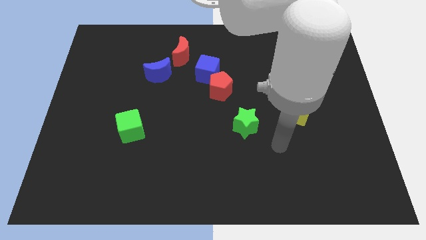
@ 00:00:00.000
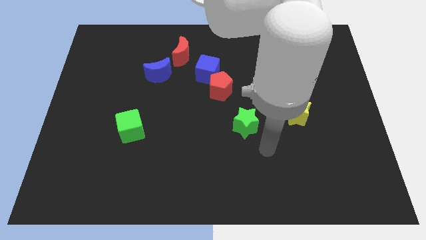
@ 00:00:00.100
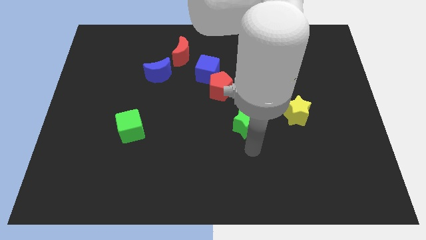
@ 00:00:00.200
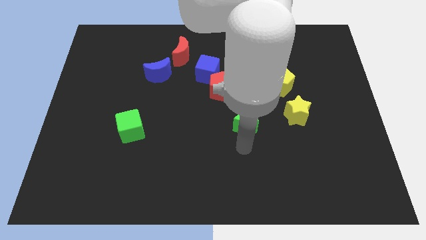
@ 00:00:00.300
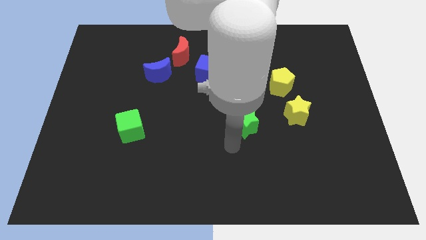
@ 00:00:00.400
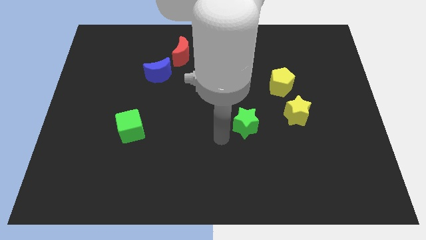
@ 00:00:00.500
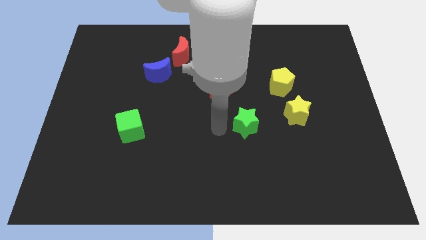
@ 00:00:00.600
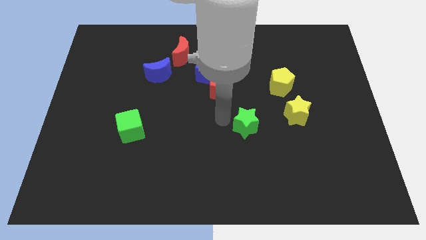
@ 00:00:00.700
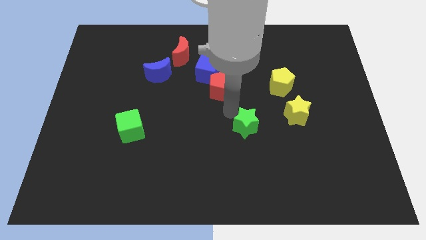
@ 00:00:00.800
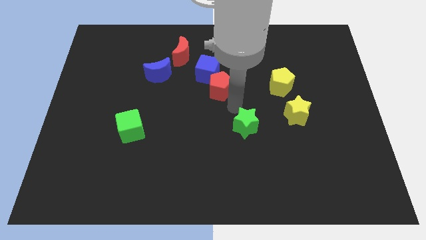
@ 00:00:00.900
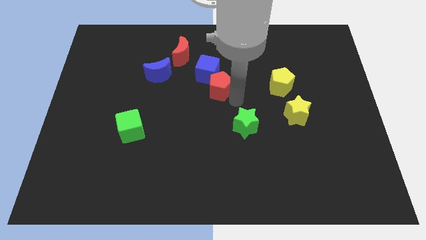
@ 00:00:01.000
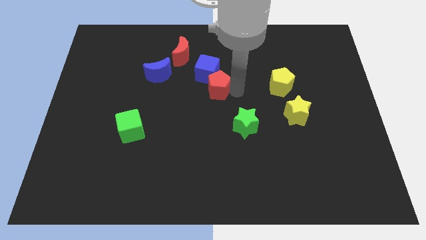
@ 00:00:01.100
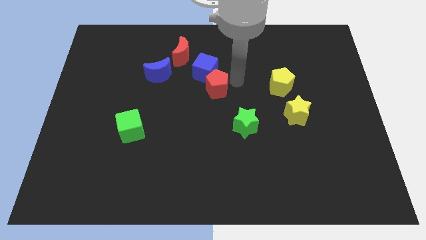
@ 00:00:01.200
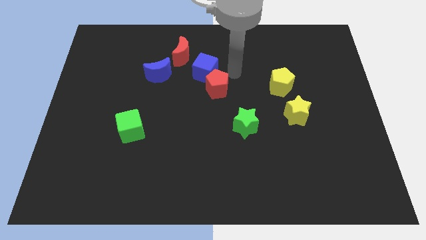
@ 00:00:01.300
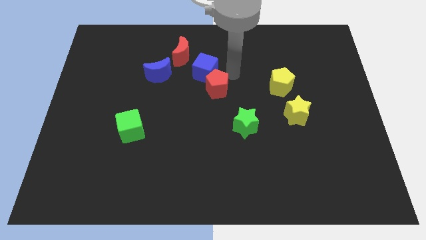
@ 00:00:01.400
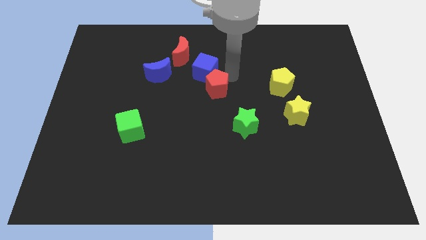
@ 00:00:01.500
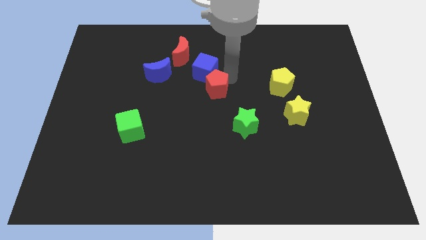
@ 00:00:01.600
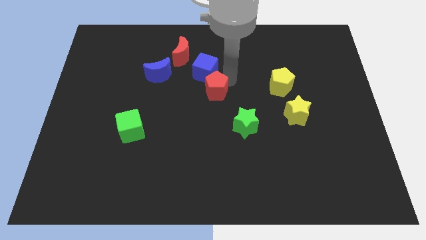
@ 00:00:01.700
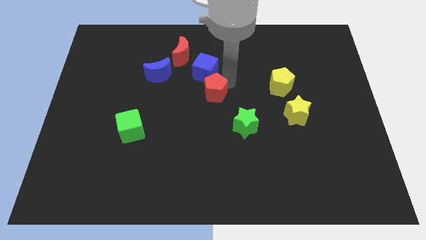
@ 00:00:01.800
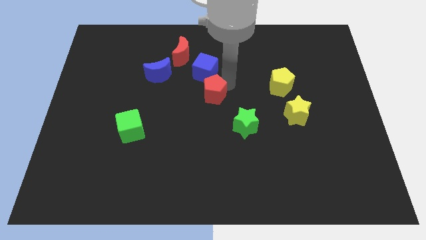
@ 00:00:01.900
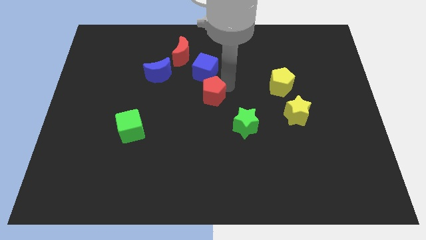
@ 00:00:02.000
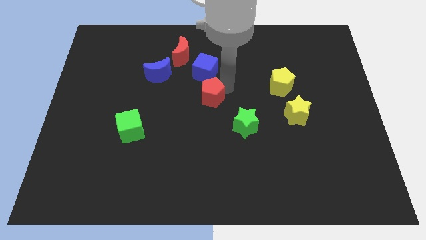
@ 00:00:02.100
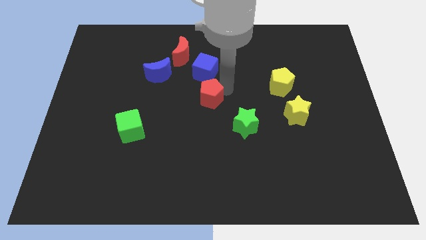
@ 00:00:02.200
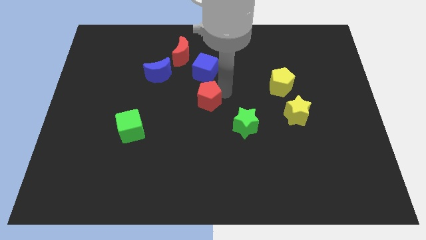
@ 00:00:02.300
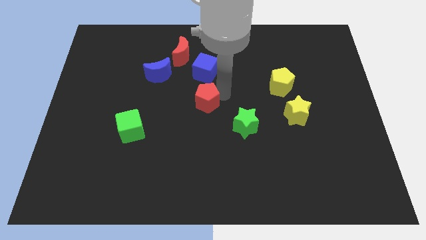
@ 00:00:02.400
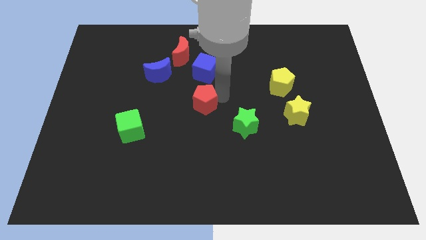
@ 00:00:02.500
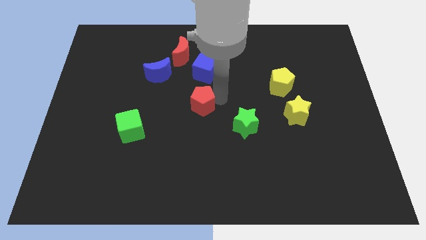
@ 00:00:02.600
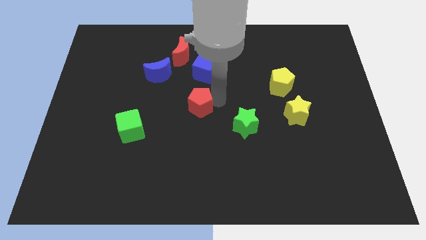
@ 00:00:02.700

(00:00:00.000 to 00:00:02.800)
slide the red pentagon downwards and left diagonally a bit

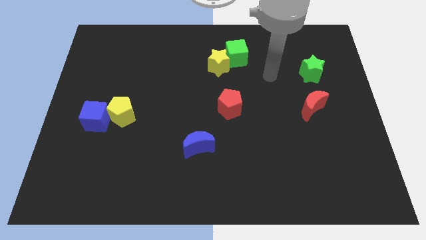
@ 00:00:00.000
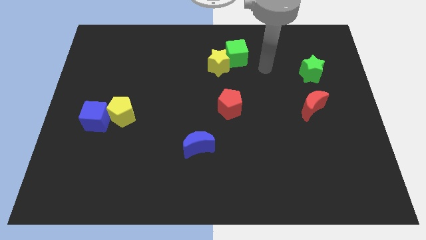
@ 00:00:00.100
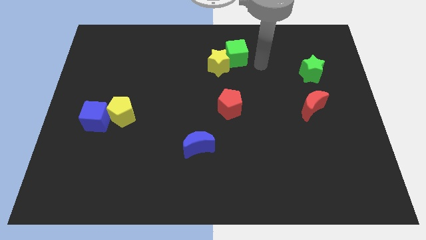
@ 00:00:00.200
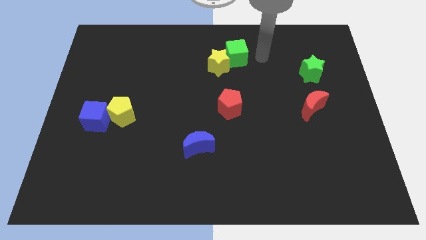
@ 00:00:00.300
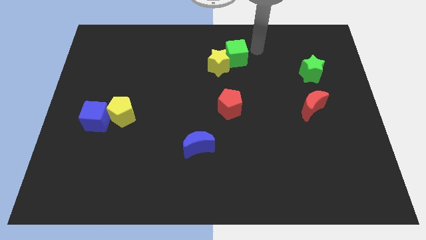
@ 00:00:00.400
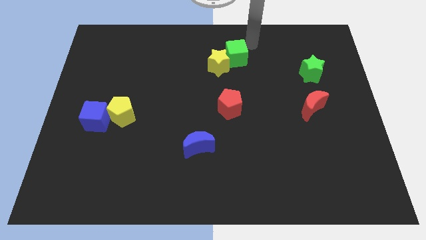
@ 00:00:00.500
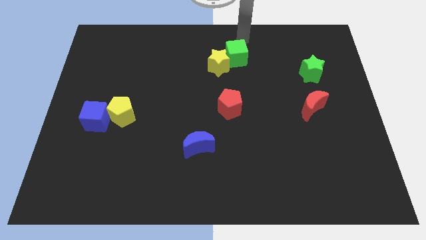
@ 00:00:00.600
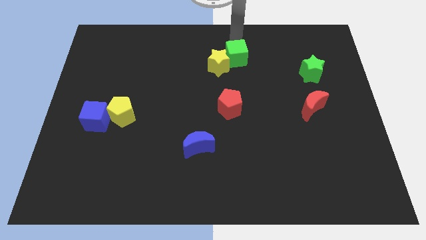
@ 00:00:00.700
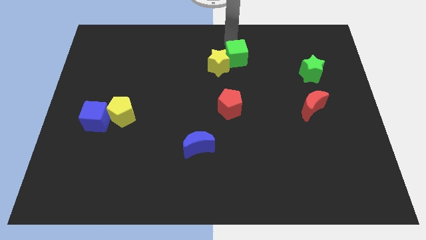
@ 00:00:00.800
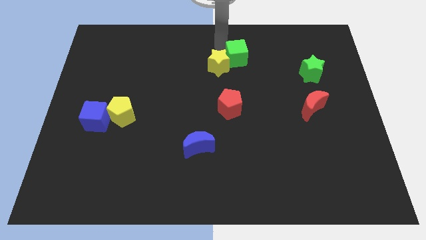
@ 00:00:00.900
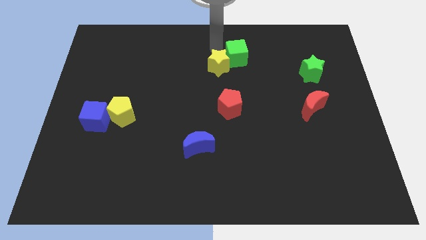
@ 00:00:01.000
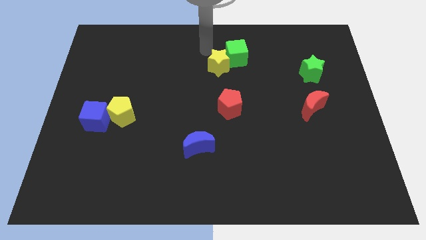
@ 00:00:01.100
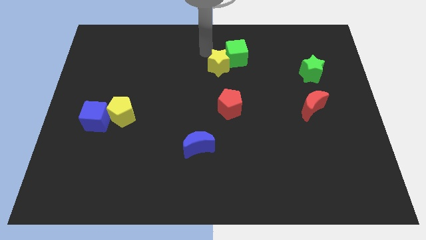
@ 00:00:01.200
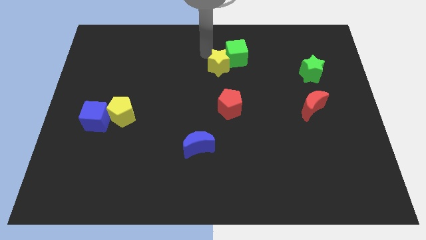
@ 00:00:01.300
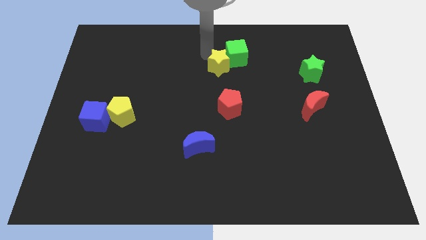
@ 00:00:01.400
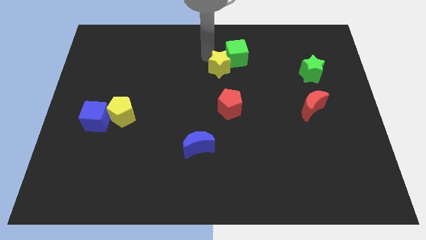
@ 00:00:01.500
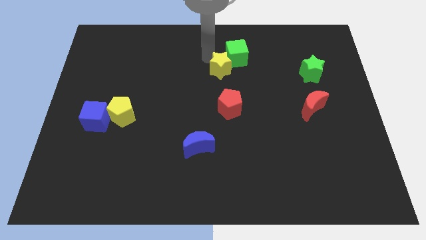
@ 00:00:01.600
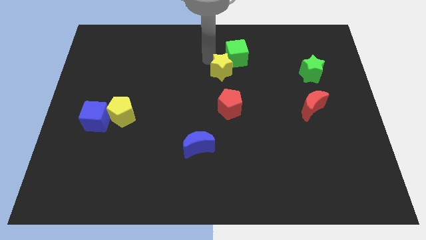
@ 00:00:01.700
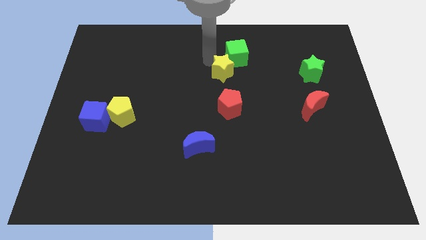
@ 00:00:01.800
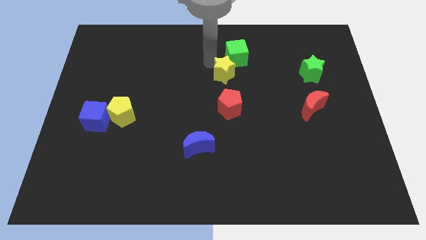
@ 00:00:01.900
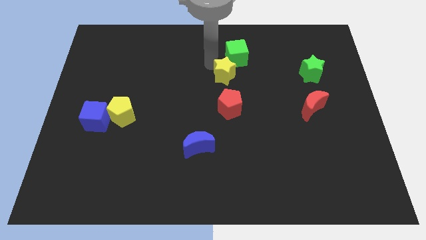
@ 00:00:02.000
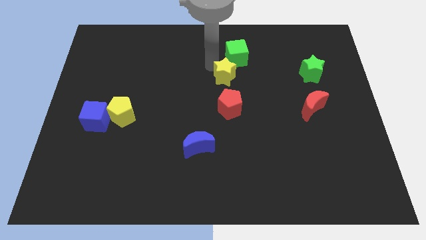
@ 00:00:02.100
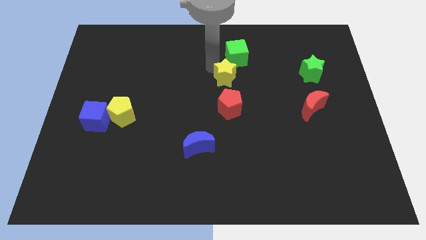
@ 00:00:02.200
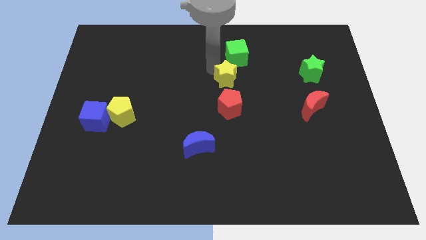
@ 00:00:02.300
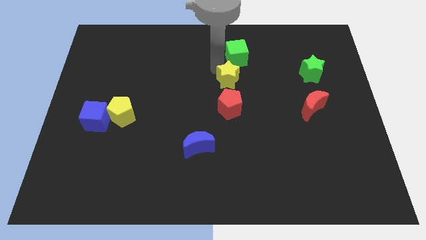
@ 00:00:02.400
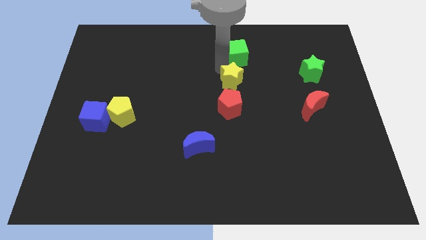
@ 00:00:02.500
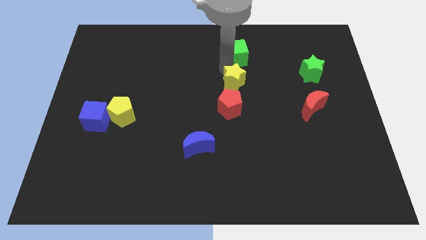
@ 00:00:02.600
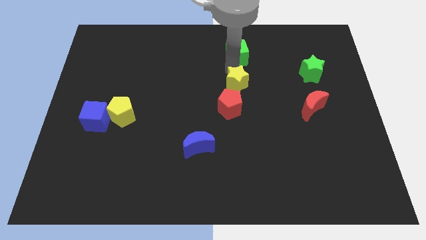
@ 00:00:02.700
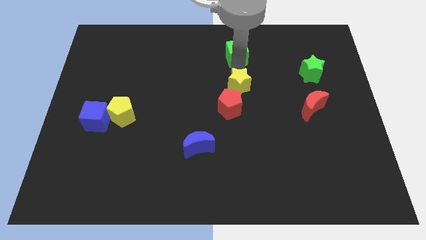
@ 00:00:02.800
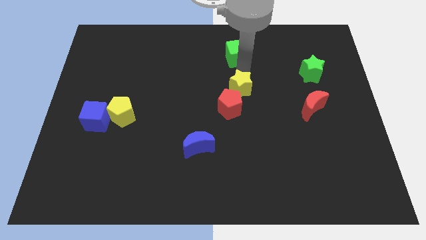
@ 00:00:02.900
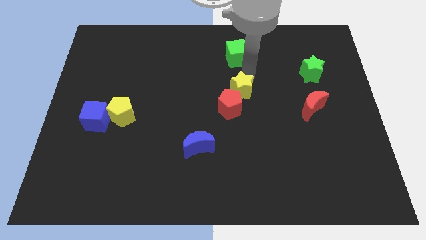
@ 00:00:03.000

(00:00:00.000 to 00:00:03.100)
slide the yellow star down slightly

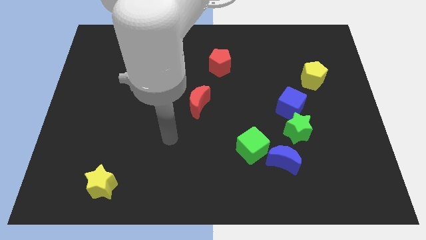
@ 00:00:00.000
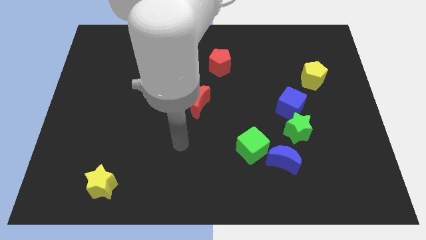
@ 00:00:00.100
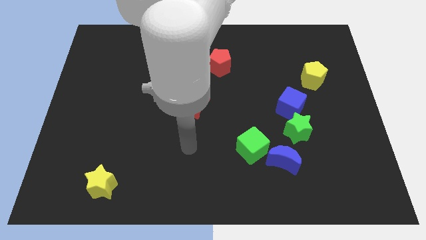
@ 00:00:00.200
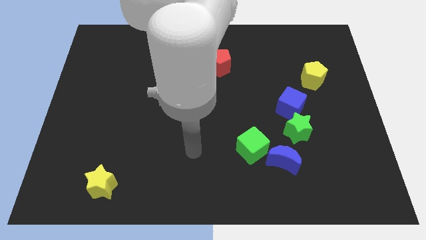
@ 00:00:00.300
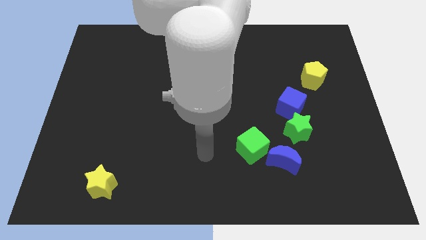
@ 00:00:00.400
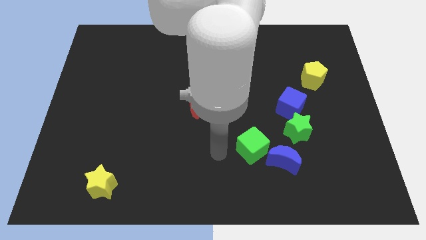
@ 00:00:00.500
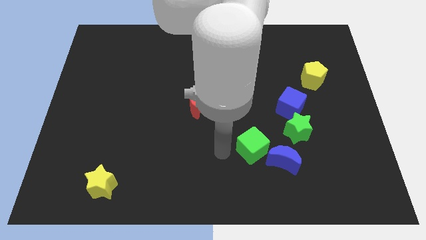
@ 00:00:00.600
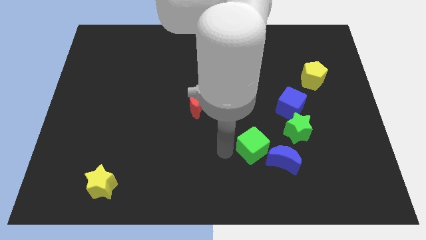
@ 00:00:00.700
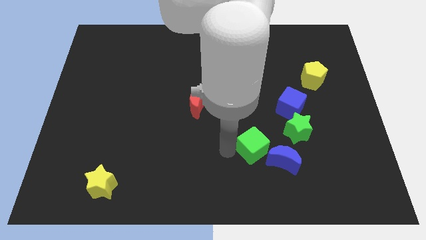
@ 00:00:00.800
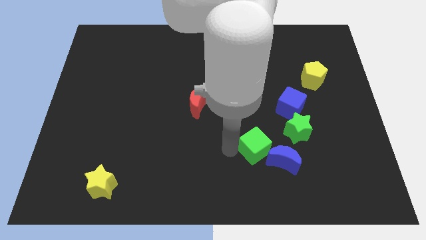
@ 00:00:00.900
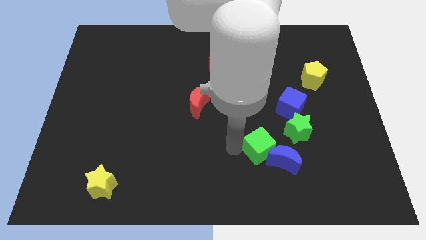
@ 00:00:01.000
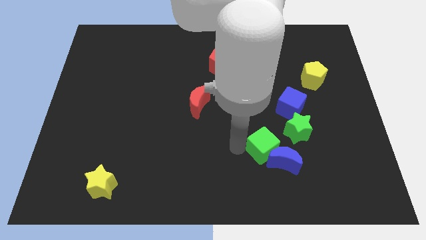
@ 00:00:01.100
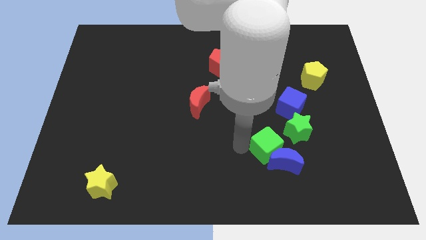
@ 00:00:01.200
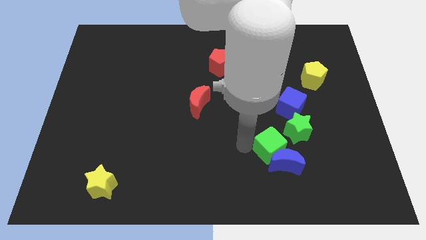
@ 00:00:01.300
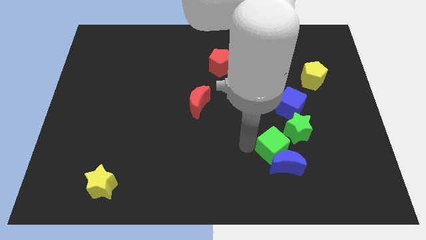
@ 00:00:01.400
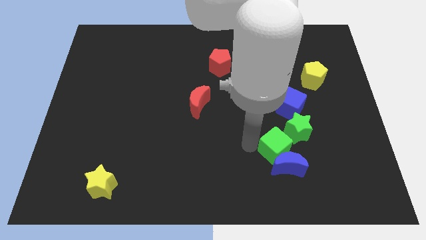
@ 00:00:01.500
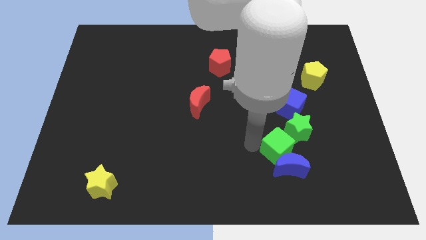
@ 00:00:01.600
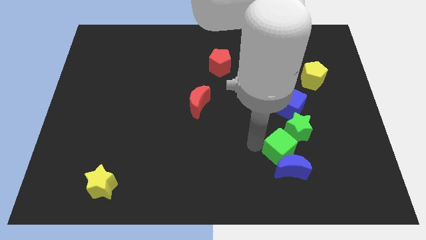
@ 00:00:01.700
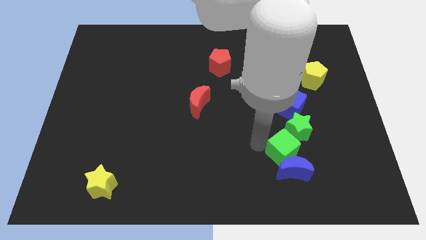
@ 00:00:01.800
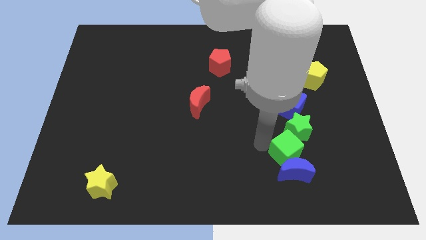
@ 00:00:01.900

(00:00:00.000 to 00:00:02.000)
slightly slide the green cube right

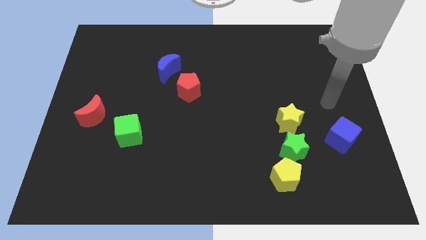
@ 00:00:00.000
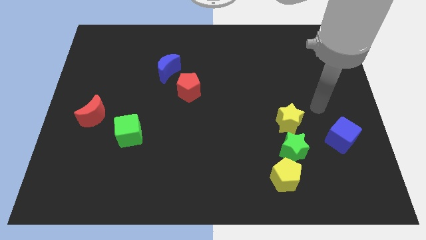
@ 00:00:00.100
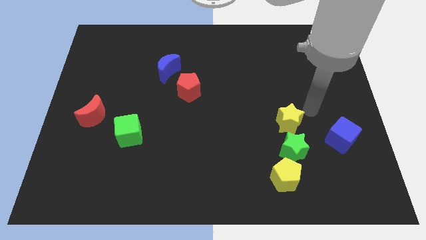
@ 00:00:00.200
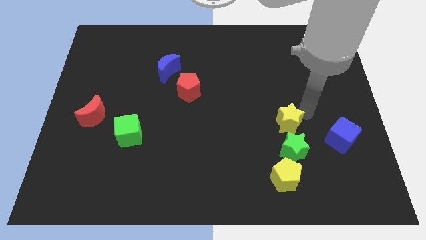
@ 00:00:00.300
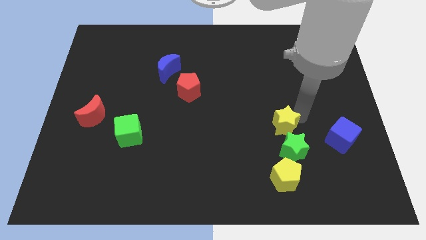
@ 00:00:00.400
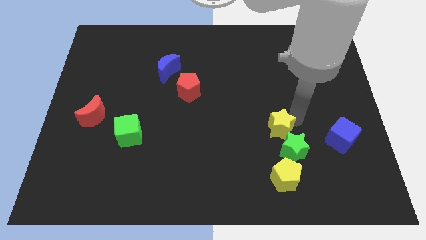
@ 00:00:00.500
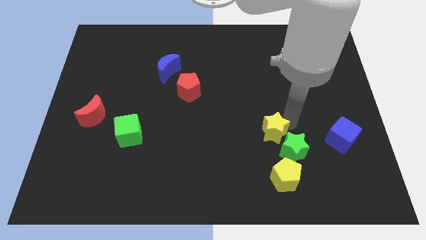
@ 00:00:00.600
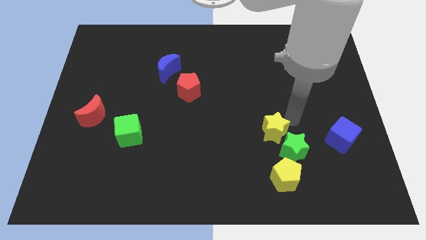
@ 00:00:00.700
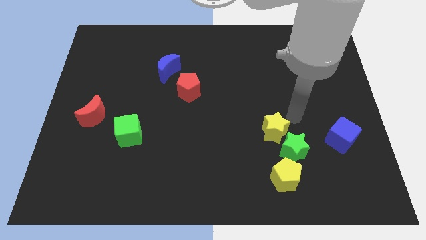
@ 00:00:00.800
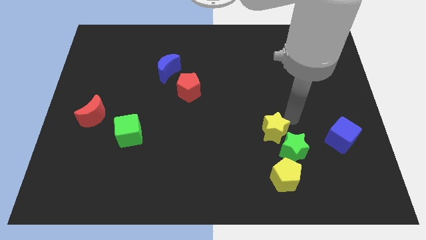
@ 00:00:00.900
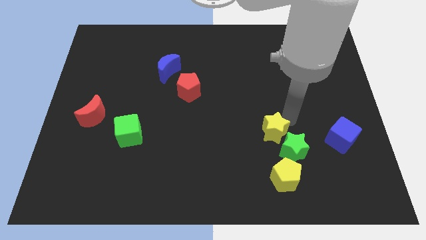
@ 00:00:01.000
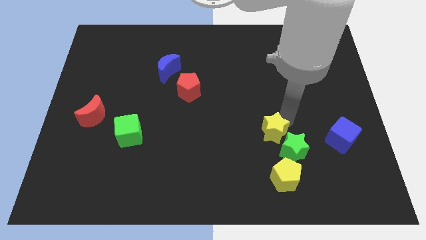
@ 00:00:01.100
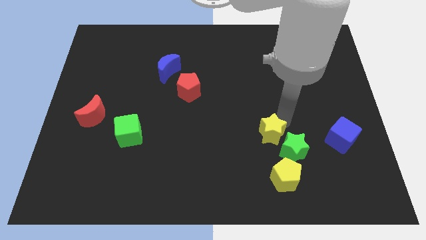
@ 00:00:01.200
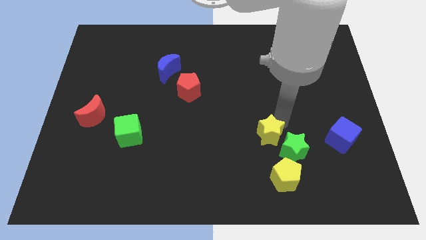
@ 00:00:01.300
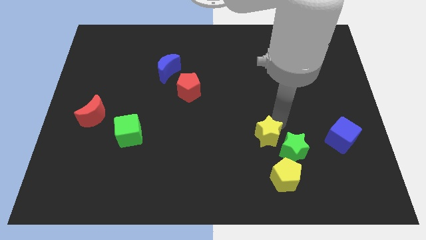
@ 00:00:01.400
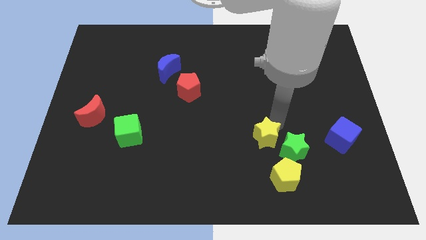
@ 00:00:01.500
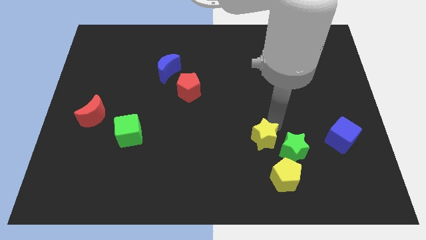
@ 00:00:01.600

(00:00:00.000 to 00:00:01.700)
slightly push the yellow star down and then left
